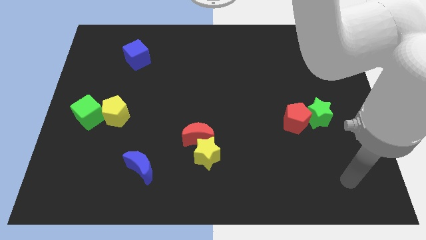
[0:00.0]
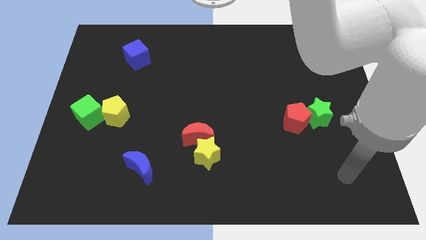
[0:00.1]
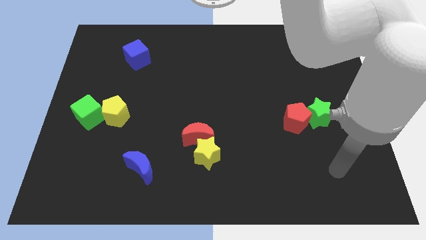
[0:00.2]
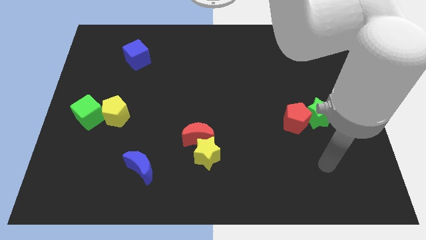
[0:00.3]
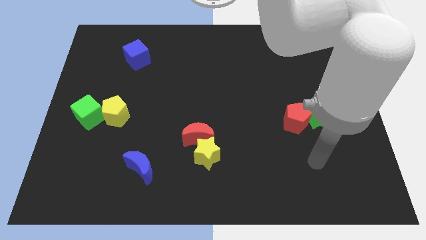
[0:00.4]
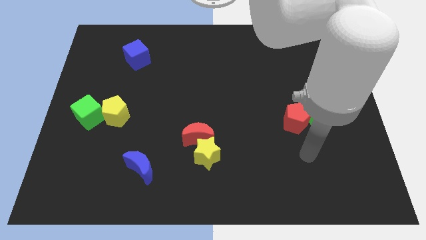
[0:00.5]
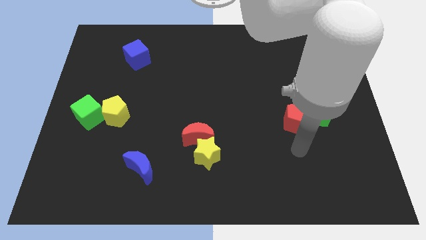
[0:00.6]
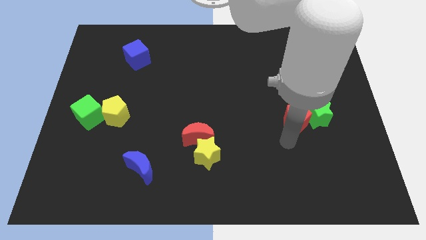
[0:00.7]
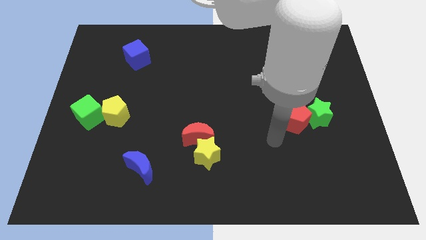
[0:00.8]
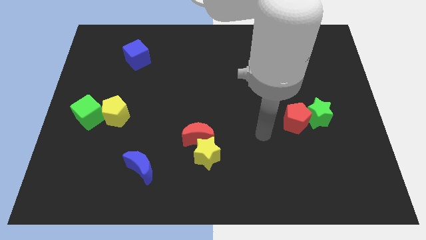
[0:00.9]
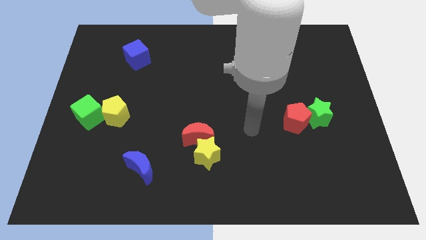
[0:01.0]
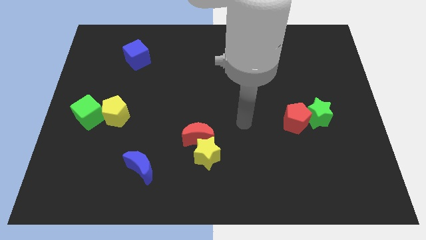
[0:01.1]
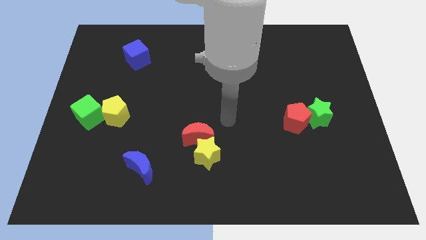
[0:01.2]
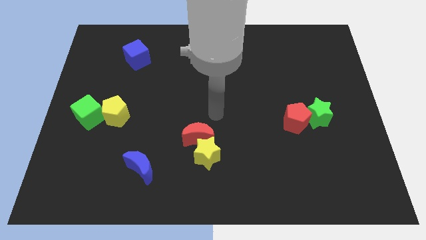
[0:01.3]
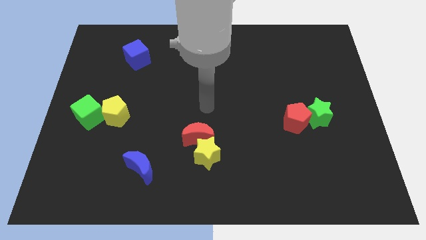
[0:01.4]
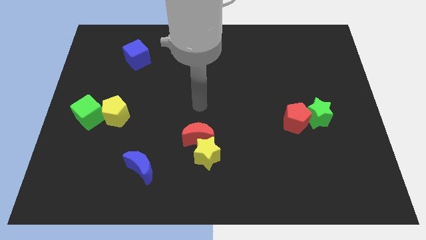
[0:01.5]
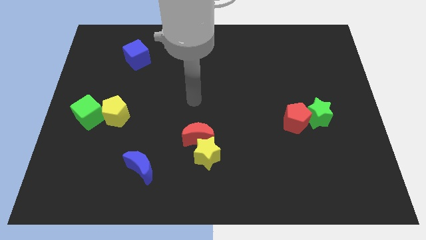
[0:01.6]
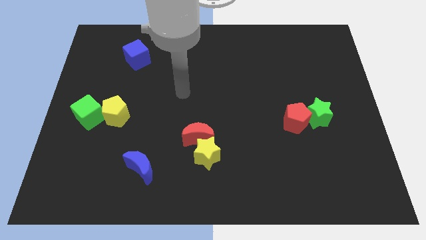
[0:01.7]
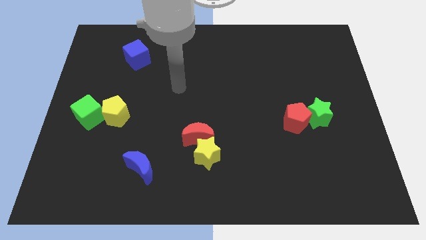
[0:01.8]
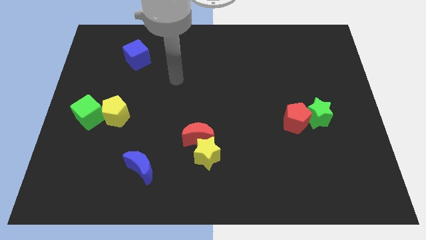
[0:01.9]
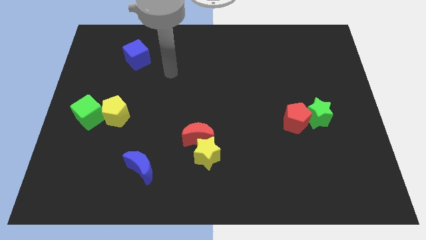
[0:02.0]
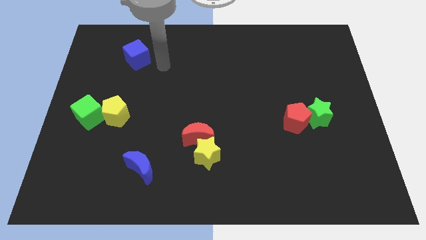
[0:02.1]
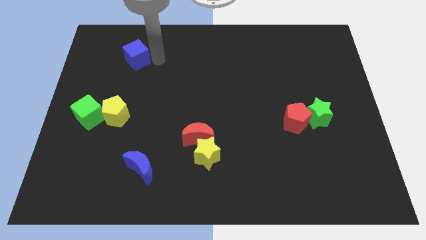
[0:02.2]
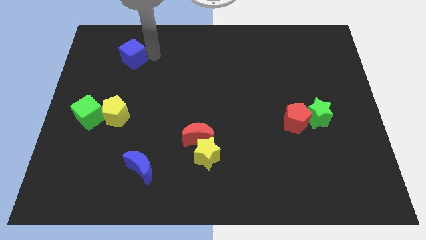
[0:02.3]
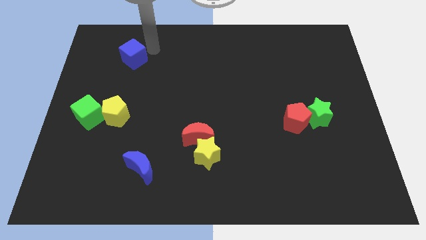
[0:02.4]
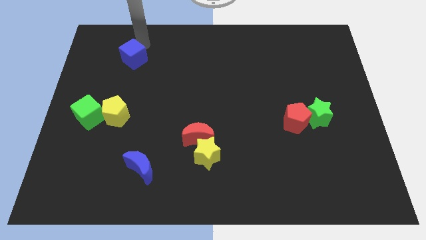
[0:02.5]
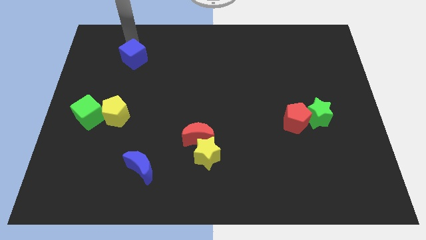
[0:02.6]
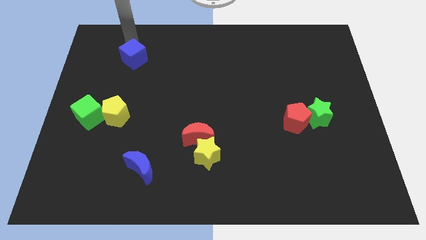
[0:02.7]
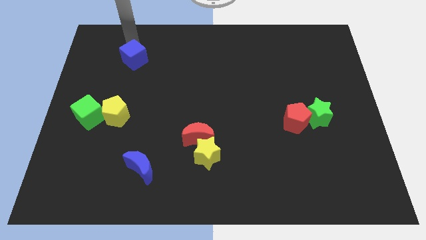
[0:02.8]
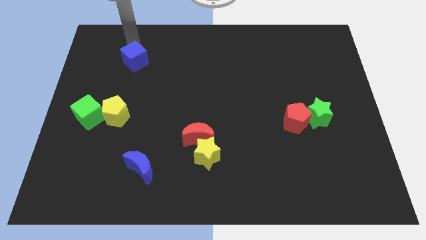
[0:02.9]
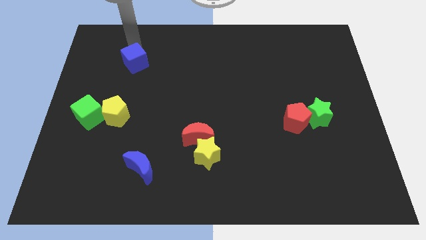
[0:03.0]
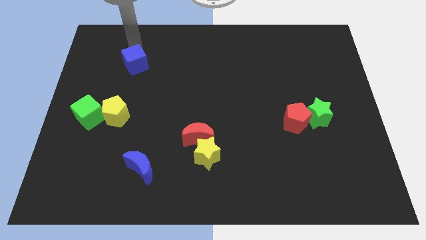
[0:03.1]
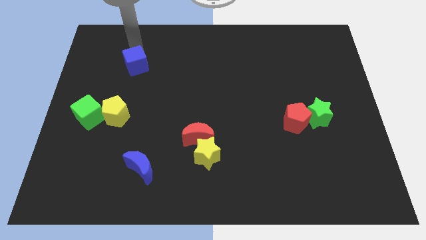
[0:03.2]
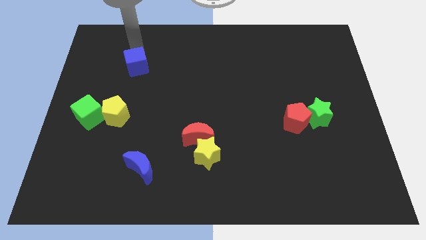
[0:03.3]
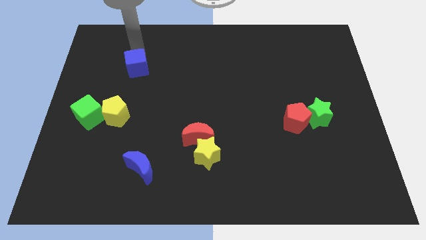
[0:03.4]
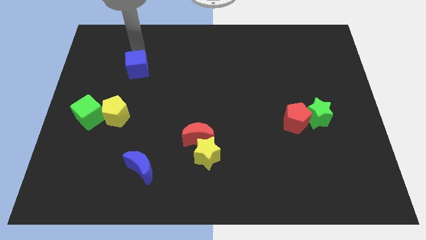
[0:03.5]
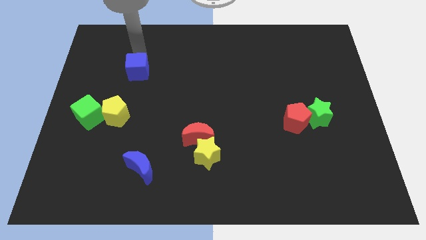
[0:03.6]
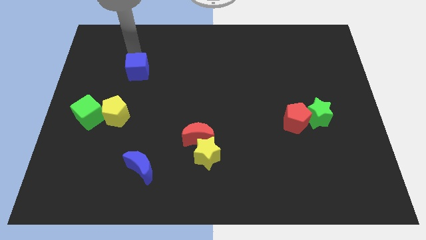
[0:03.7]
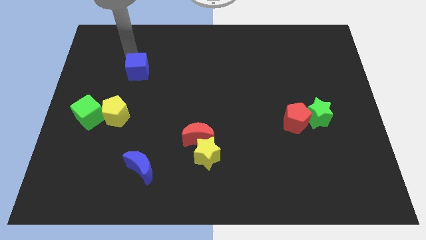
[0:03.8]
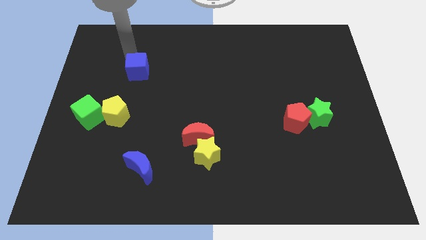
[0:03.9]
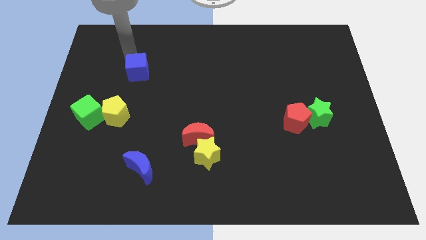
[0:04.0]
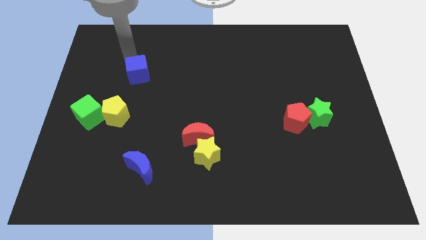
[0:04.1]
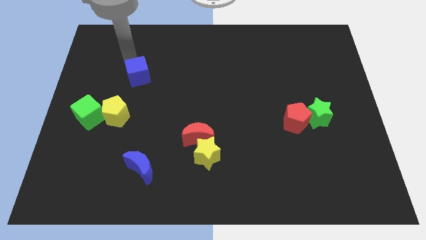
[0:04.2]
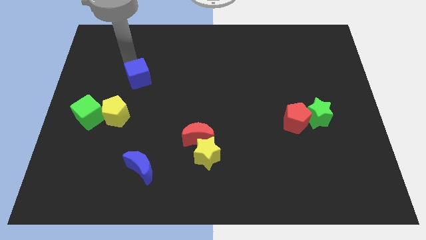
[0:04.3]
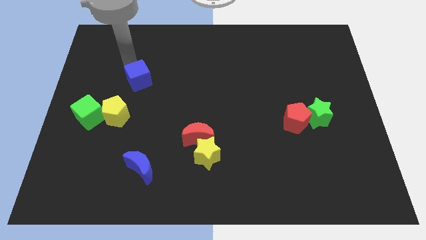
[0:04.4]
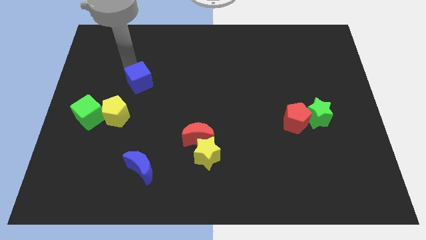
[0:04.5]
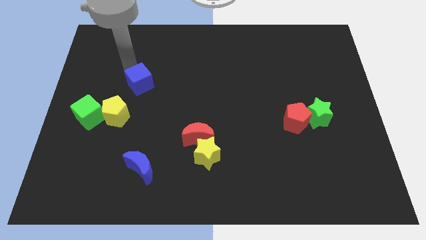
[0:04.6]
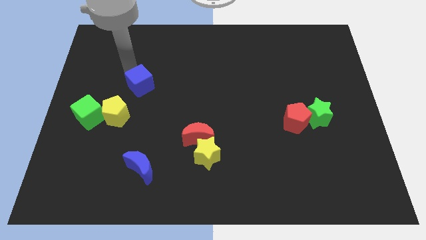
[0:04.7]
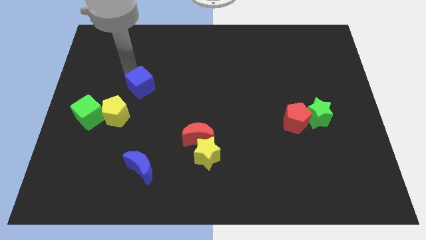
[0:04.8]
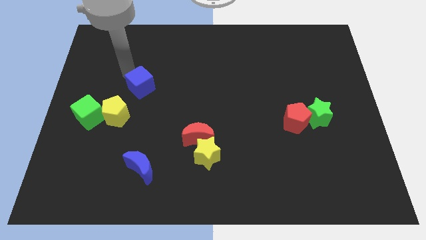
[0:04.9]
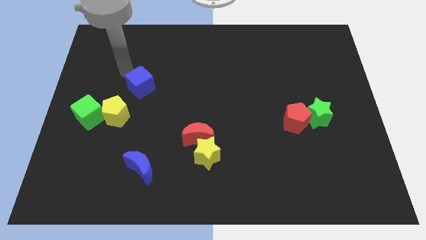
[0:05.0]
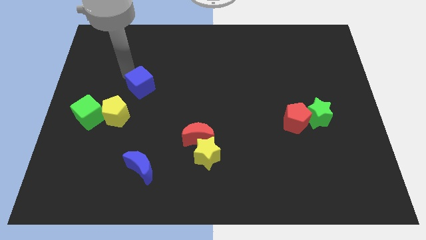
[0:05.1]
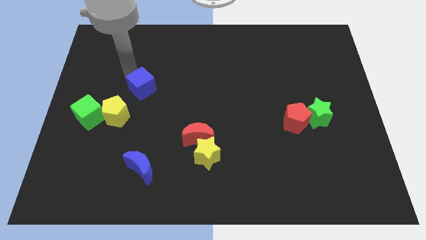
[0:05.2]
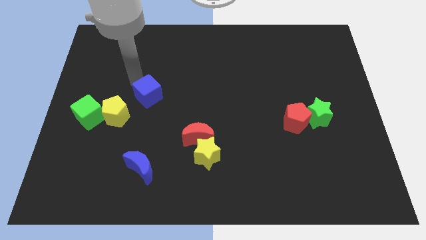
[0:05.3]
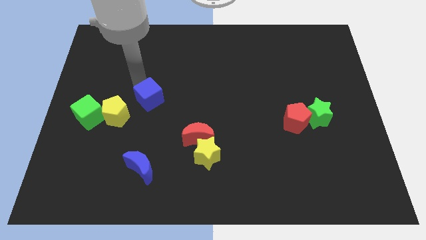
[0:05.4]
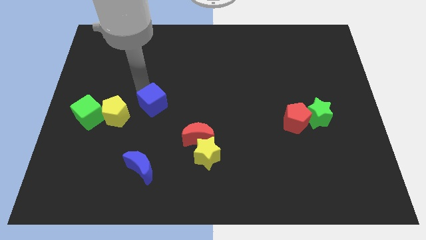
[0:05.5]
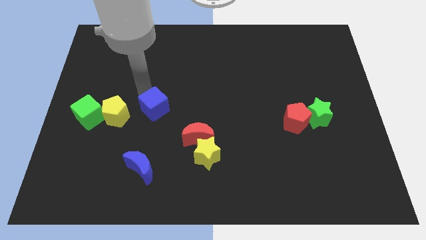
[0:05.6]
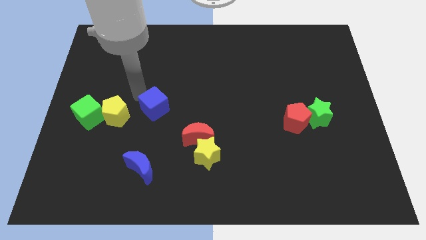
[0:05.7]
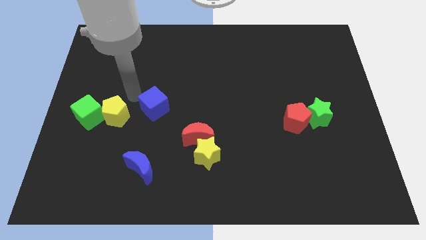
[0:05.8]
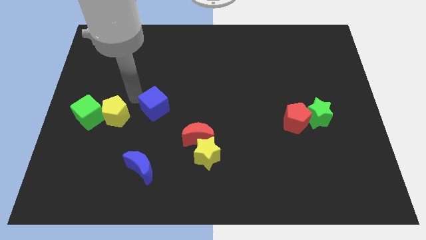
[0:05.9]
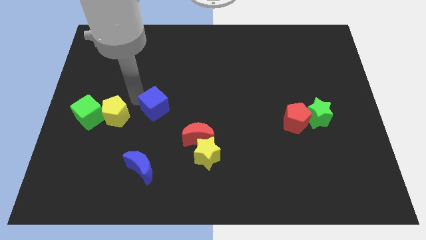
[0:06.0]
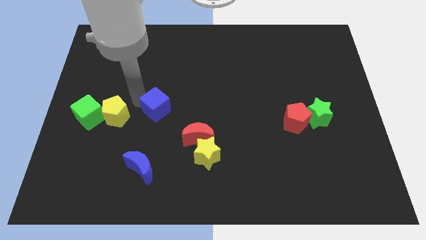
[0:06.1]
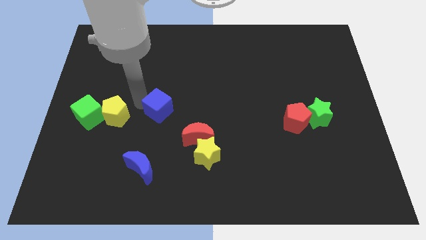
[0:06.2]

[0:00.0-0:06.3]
put the blue cube to the top left side of the red moon

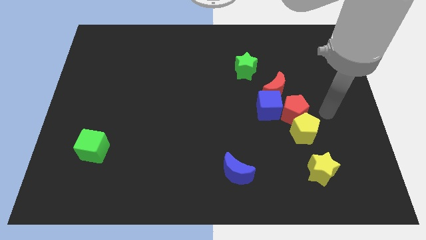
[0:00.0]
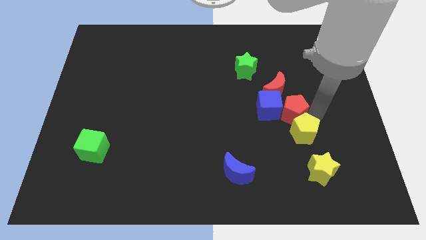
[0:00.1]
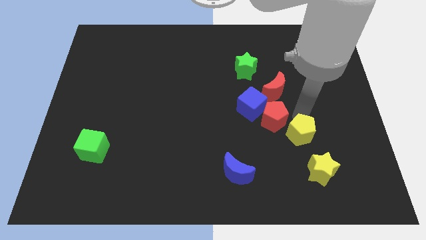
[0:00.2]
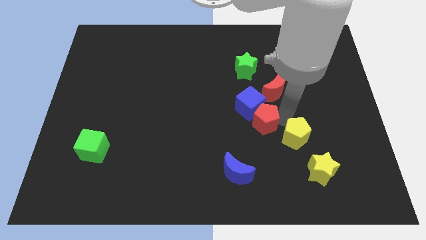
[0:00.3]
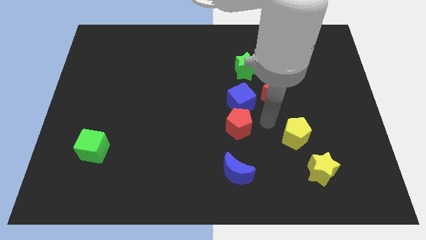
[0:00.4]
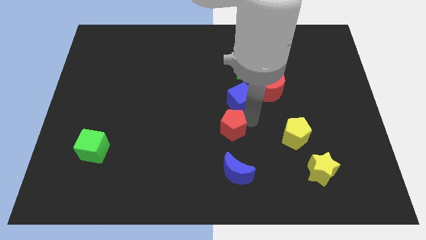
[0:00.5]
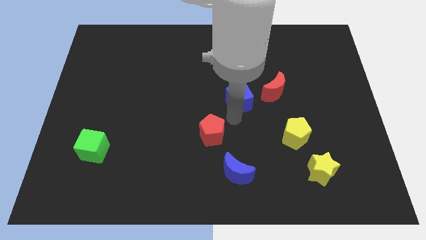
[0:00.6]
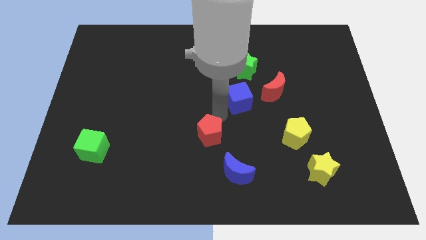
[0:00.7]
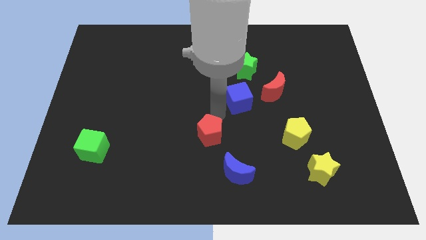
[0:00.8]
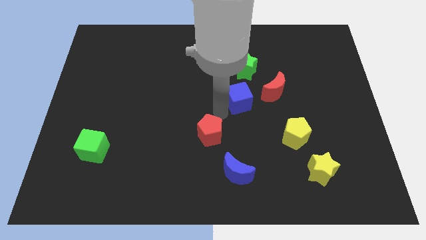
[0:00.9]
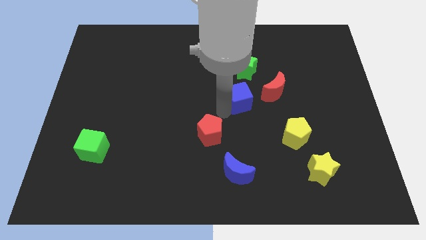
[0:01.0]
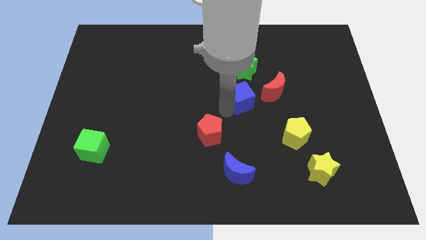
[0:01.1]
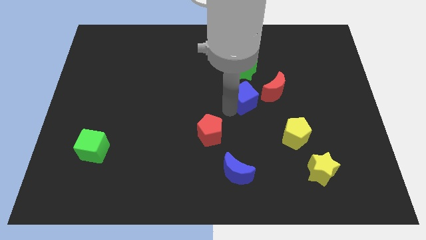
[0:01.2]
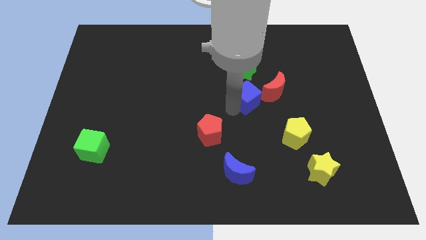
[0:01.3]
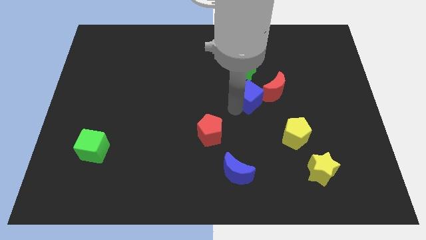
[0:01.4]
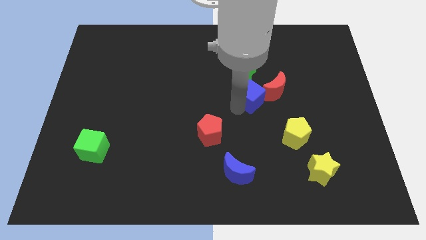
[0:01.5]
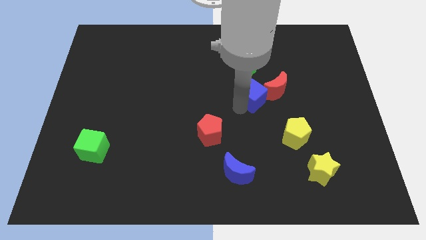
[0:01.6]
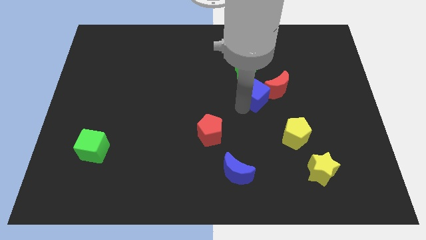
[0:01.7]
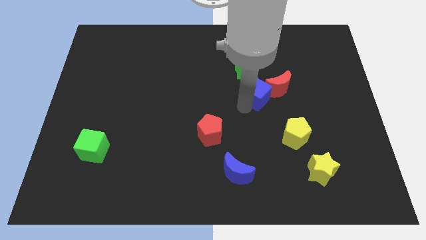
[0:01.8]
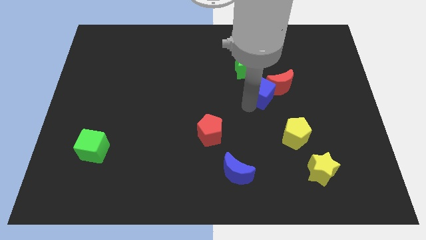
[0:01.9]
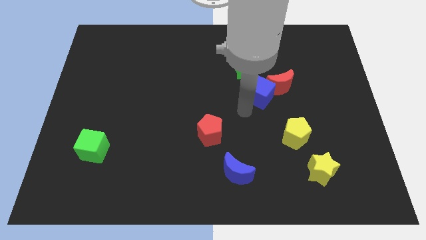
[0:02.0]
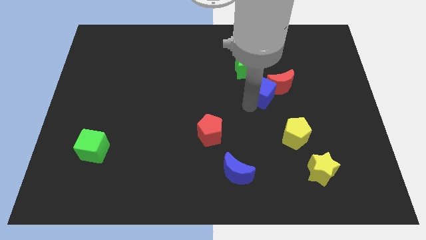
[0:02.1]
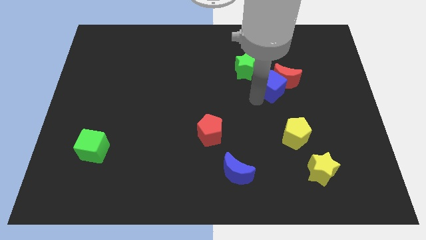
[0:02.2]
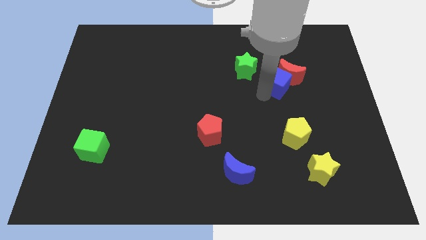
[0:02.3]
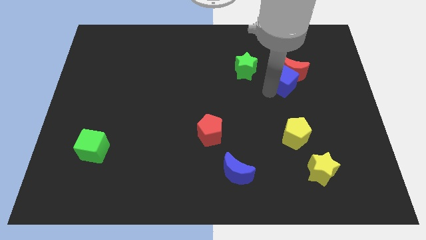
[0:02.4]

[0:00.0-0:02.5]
slide the blue cube to the right side of the green star
